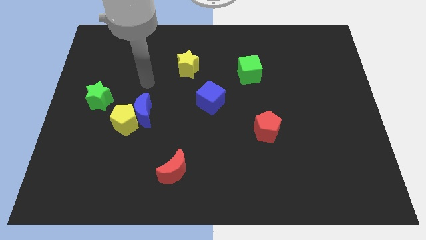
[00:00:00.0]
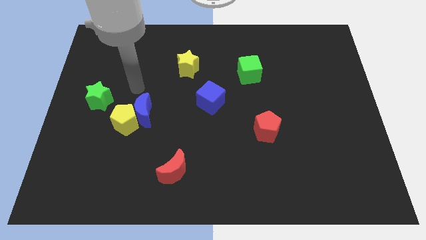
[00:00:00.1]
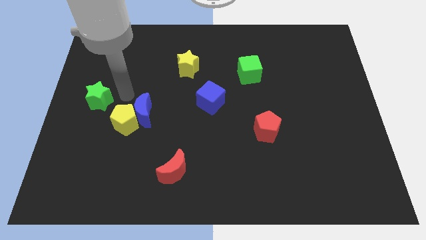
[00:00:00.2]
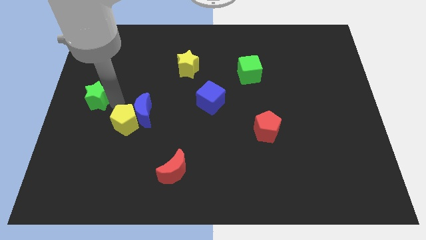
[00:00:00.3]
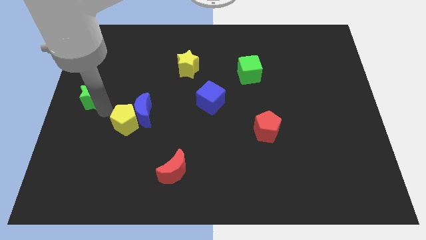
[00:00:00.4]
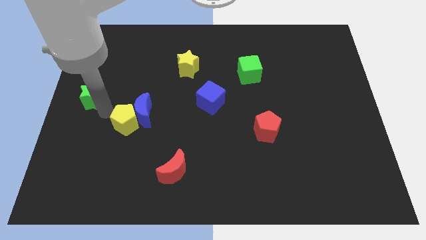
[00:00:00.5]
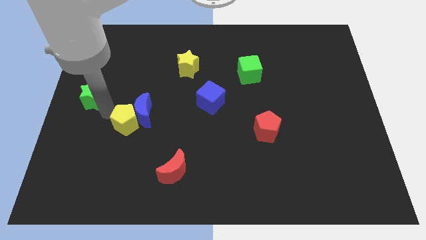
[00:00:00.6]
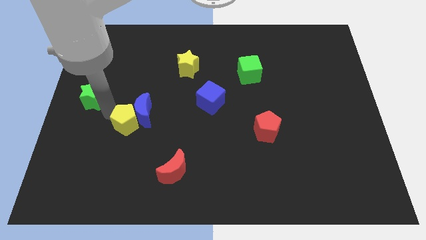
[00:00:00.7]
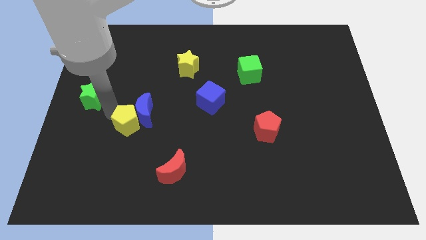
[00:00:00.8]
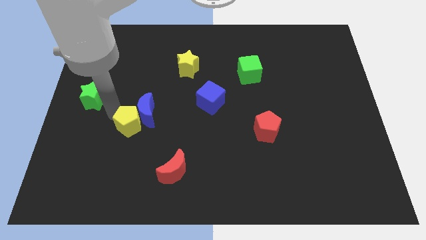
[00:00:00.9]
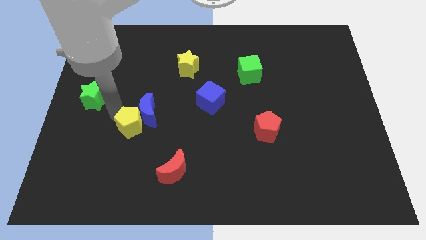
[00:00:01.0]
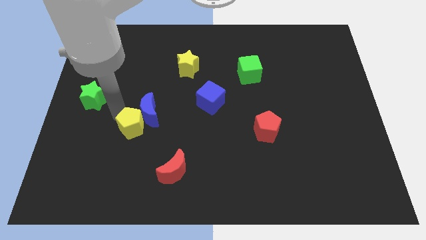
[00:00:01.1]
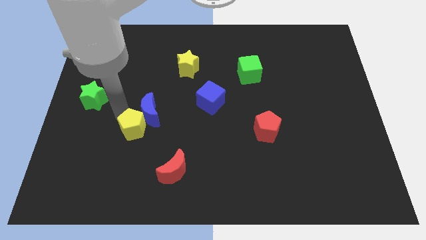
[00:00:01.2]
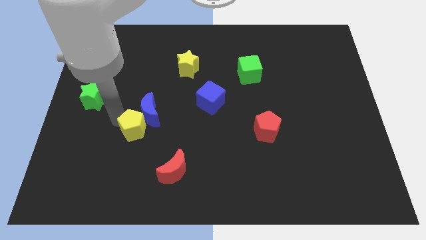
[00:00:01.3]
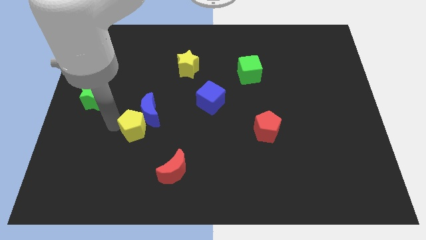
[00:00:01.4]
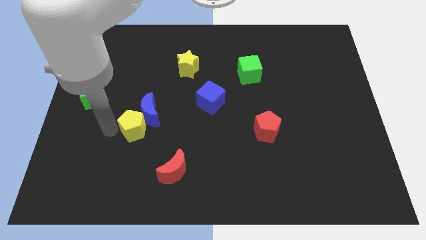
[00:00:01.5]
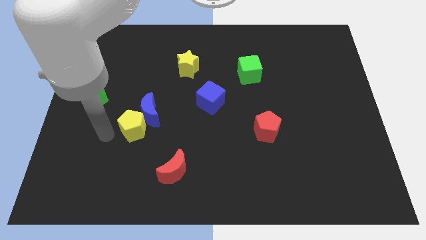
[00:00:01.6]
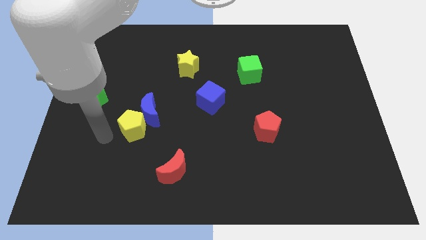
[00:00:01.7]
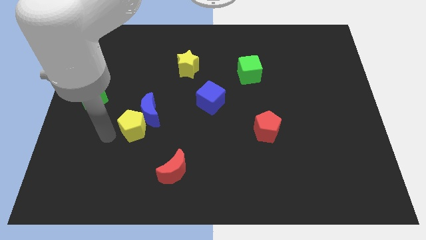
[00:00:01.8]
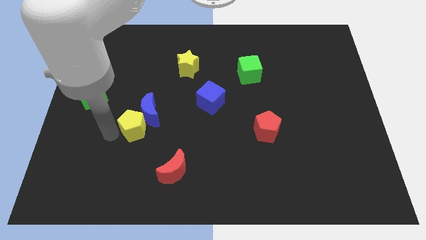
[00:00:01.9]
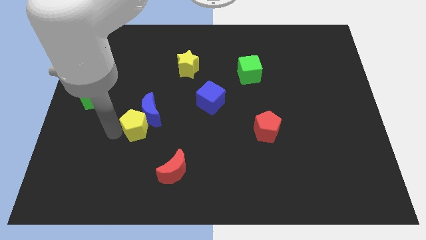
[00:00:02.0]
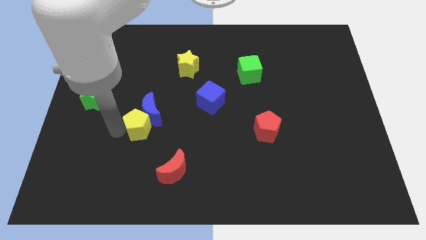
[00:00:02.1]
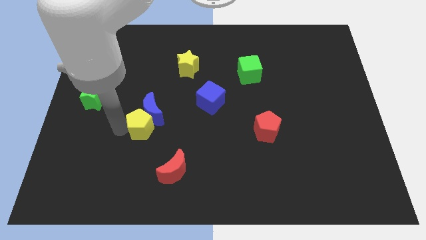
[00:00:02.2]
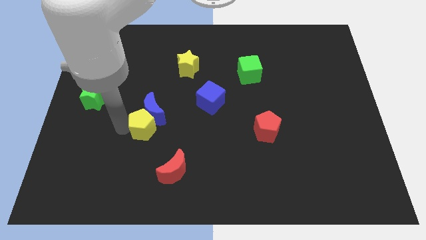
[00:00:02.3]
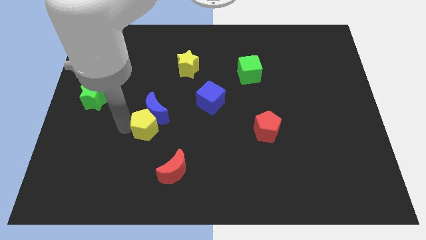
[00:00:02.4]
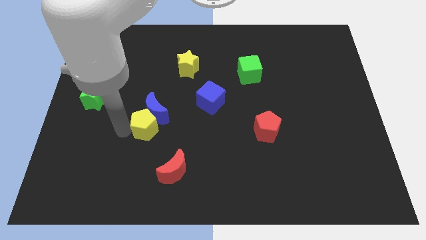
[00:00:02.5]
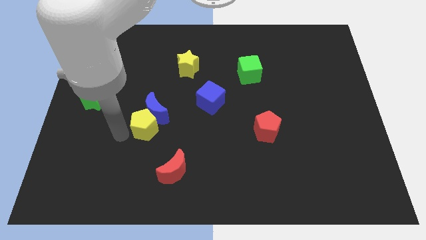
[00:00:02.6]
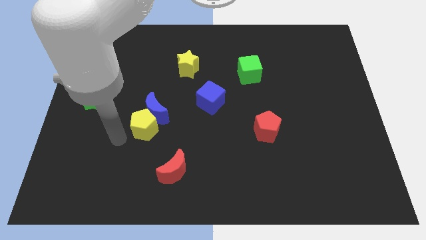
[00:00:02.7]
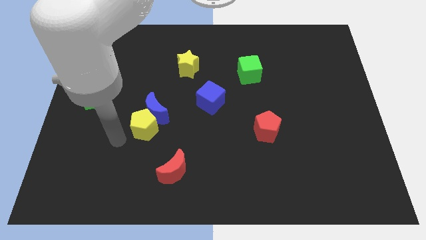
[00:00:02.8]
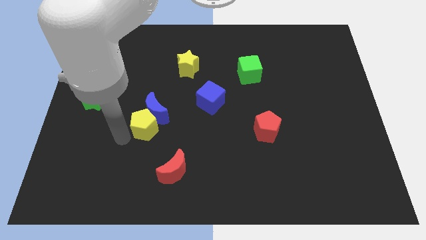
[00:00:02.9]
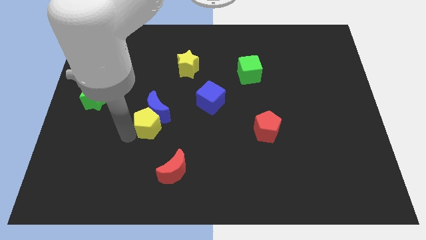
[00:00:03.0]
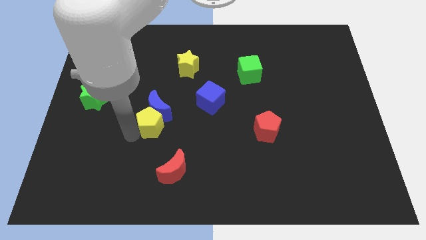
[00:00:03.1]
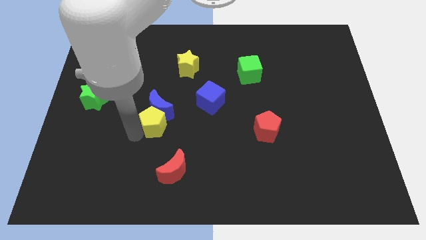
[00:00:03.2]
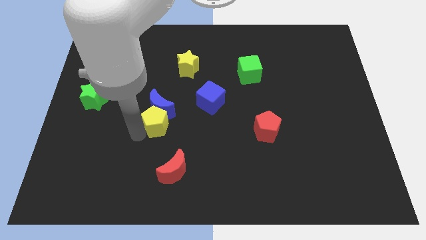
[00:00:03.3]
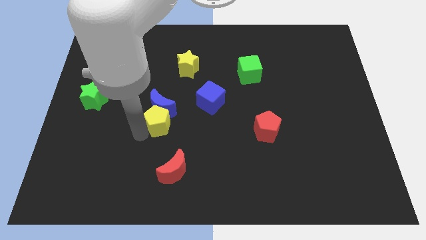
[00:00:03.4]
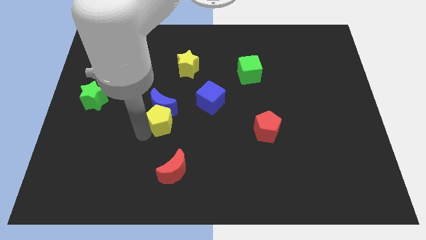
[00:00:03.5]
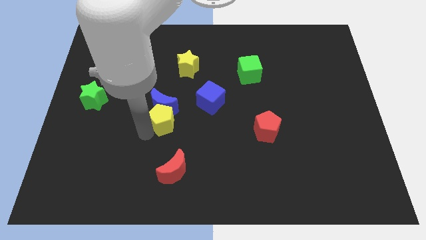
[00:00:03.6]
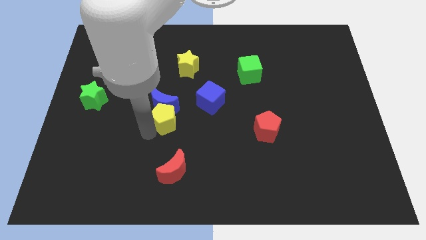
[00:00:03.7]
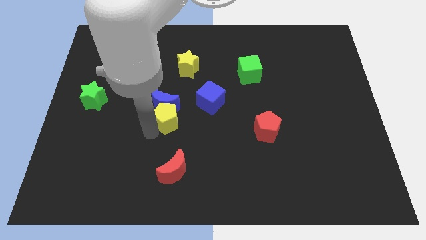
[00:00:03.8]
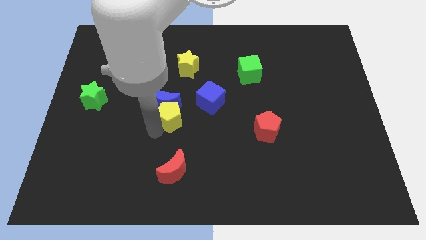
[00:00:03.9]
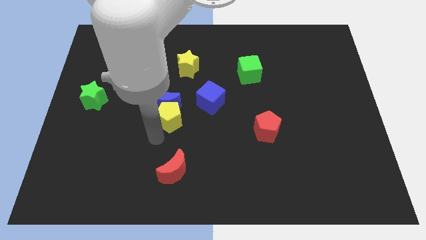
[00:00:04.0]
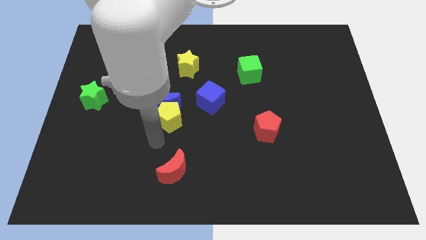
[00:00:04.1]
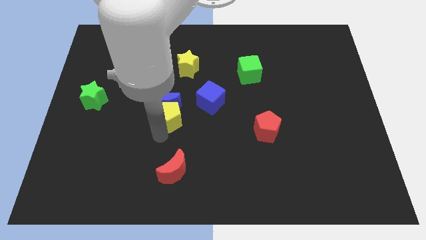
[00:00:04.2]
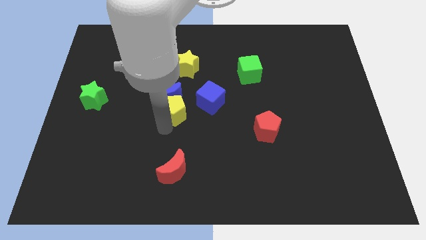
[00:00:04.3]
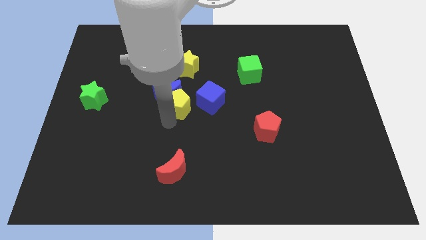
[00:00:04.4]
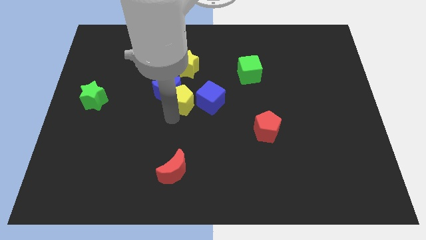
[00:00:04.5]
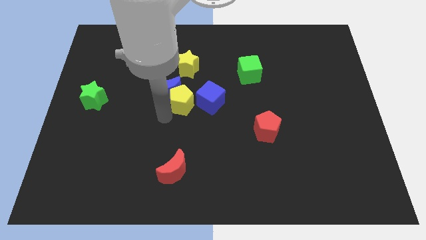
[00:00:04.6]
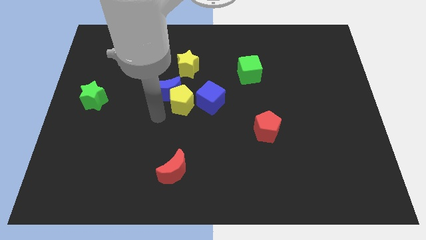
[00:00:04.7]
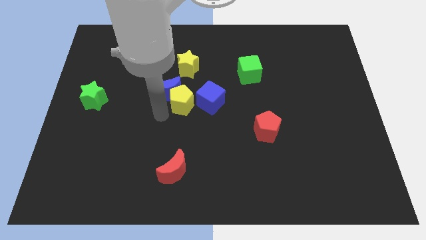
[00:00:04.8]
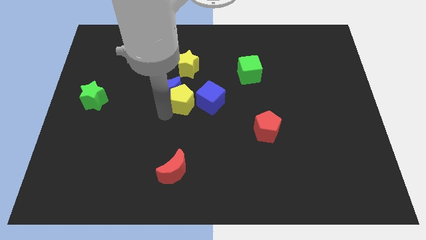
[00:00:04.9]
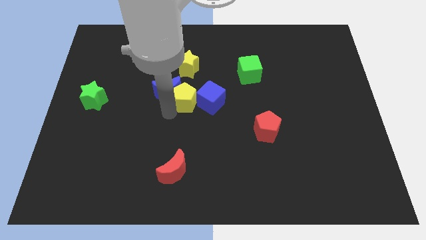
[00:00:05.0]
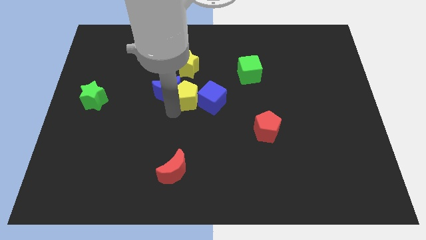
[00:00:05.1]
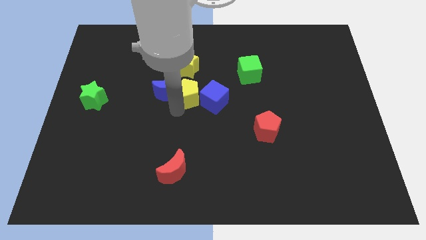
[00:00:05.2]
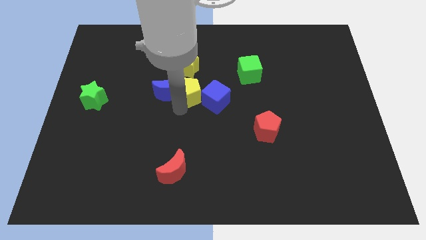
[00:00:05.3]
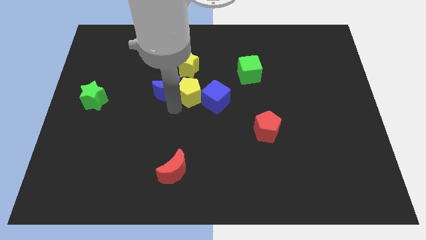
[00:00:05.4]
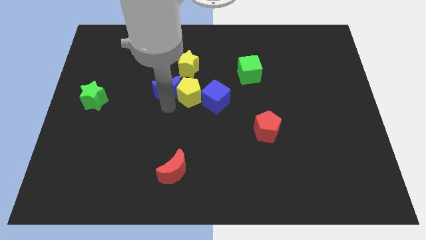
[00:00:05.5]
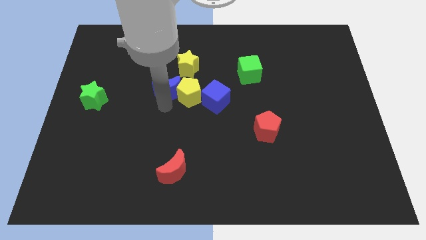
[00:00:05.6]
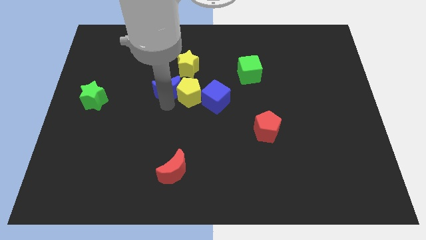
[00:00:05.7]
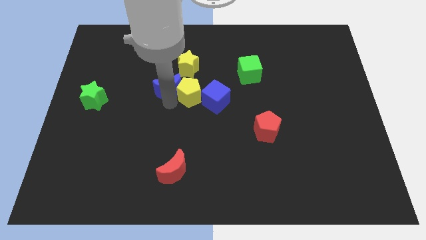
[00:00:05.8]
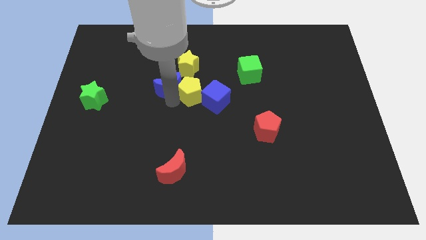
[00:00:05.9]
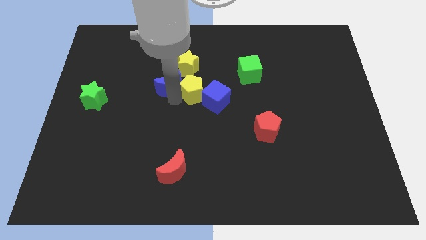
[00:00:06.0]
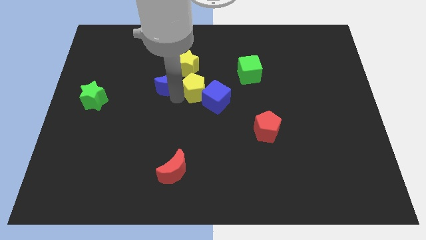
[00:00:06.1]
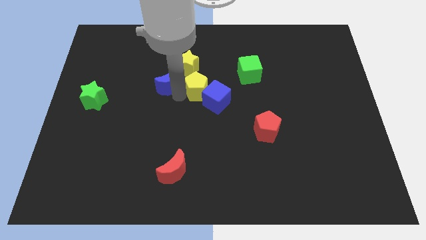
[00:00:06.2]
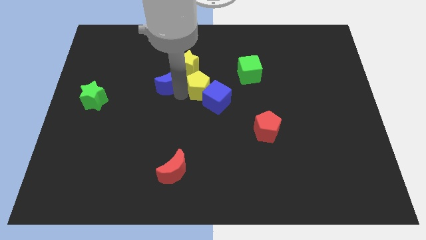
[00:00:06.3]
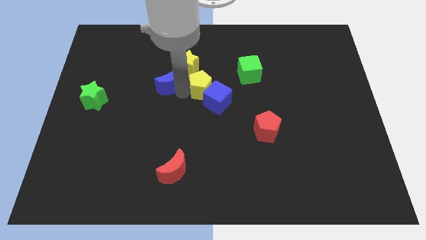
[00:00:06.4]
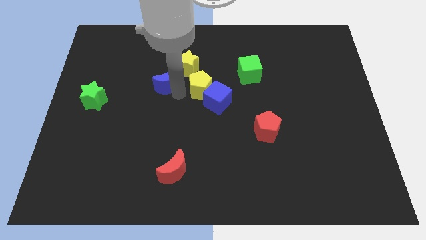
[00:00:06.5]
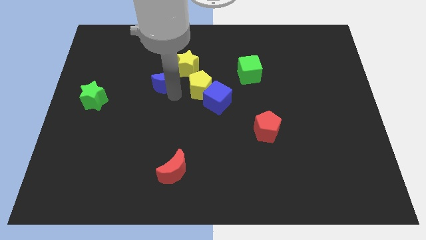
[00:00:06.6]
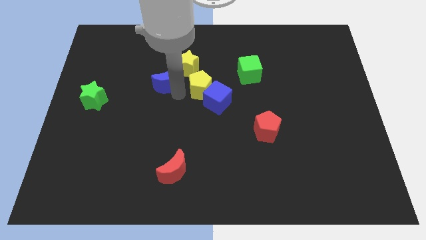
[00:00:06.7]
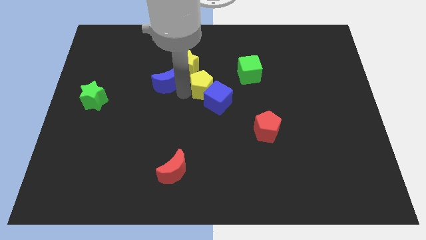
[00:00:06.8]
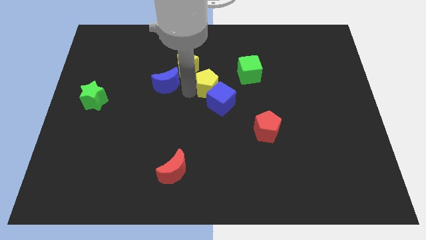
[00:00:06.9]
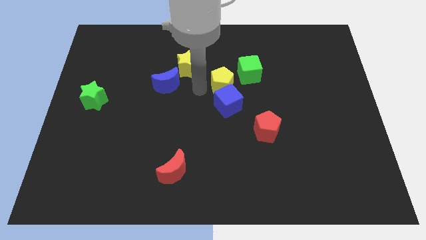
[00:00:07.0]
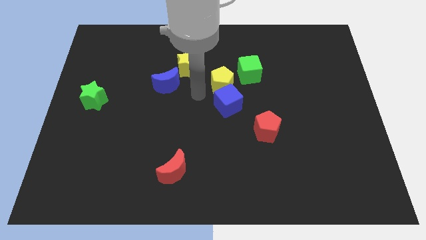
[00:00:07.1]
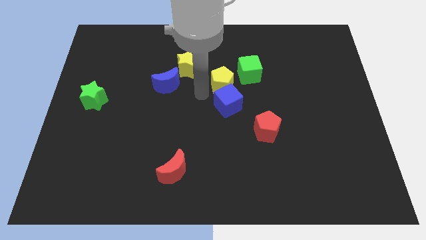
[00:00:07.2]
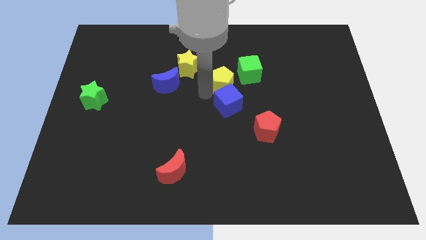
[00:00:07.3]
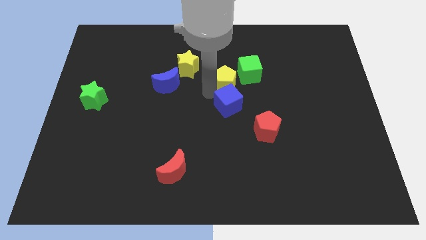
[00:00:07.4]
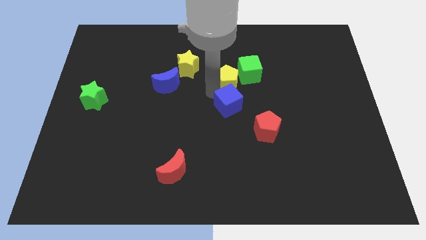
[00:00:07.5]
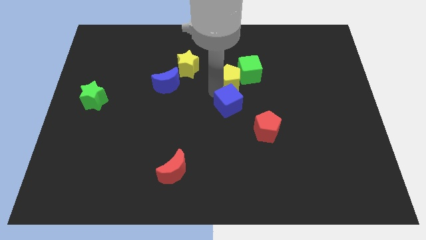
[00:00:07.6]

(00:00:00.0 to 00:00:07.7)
move the yellow pentagon close to the green cube
